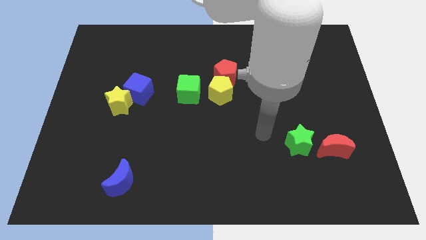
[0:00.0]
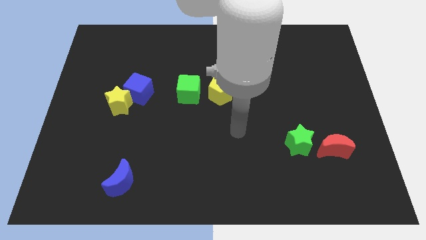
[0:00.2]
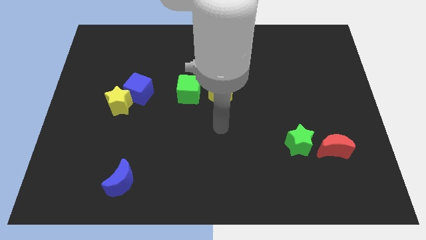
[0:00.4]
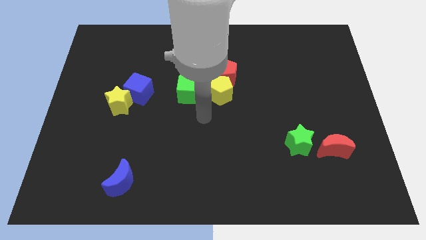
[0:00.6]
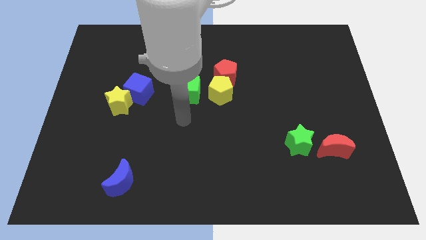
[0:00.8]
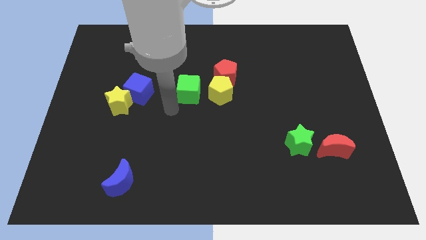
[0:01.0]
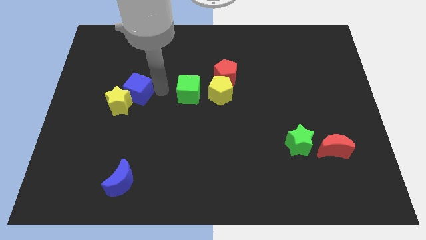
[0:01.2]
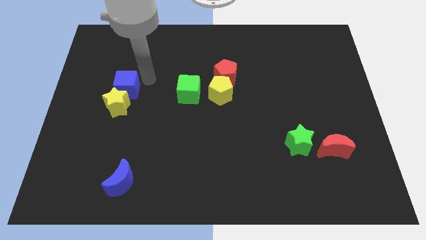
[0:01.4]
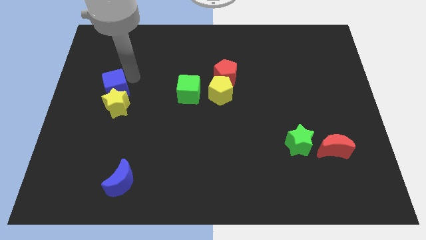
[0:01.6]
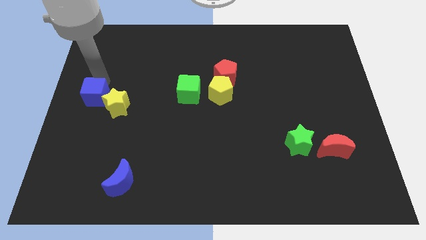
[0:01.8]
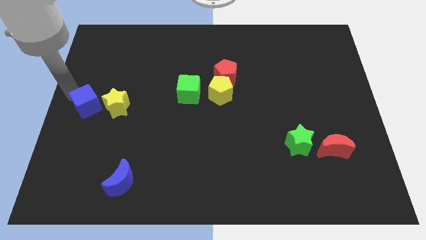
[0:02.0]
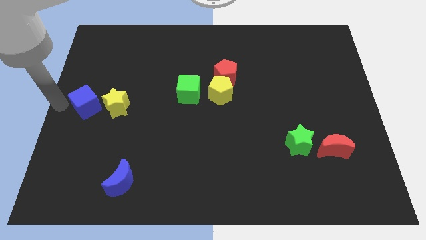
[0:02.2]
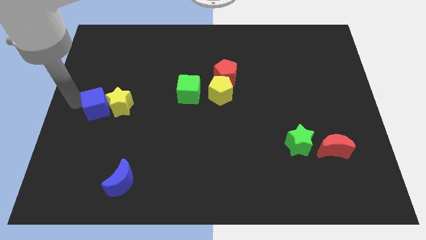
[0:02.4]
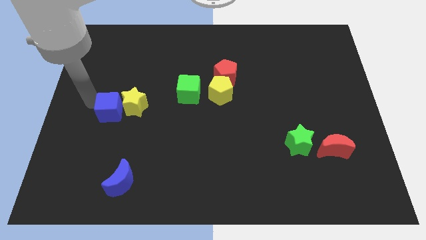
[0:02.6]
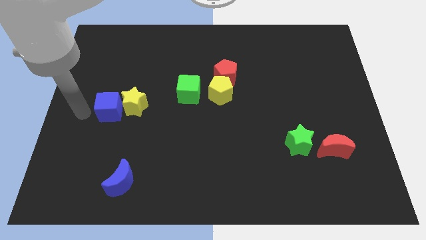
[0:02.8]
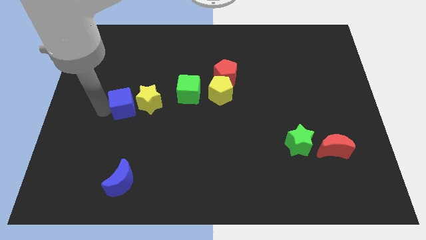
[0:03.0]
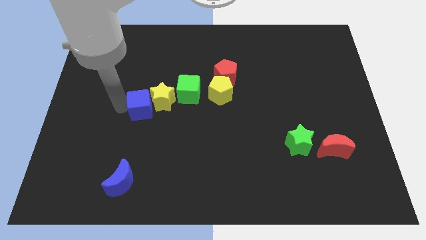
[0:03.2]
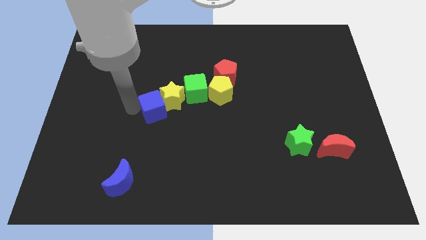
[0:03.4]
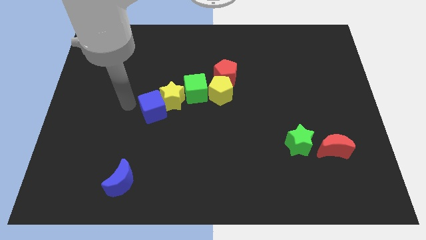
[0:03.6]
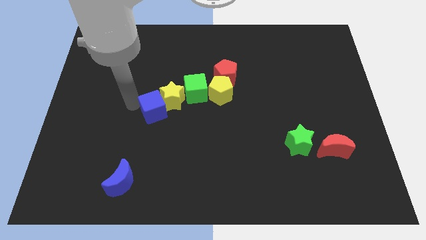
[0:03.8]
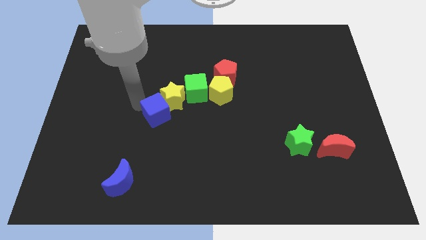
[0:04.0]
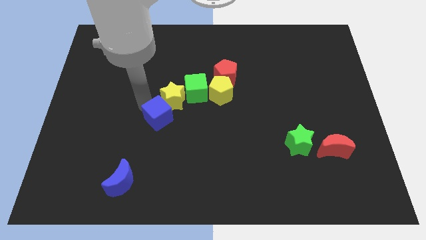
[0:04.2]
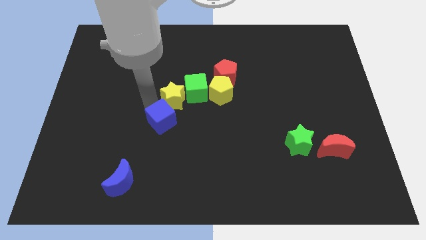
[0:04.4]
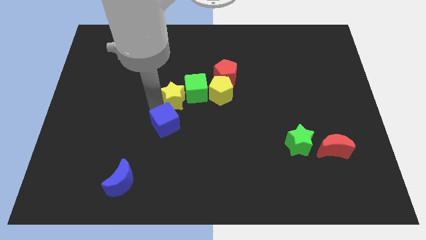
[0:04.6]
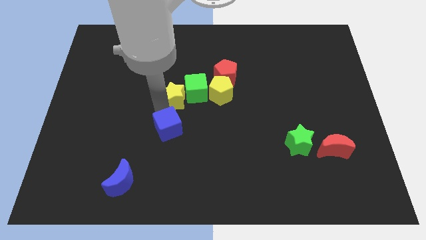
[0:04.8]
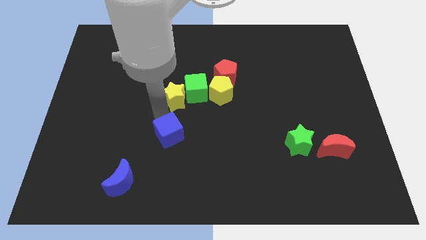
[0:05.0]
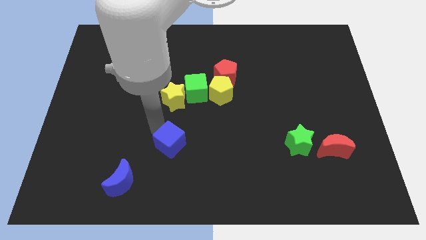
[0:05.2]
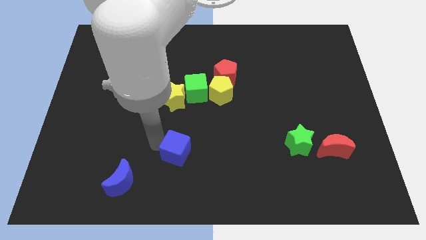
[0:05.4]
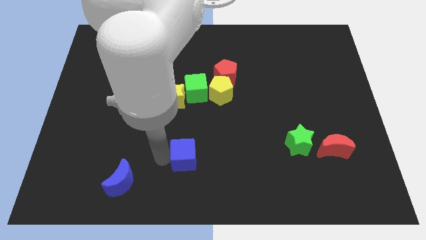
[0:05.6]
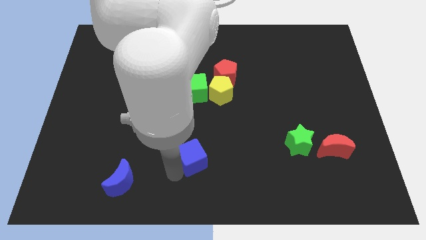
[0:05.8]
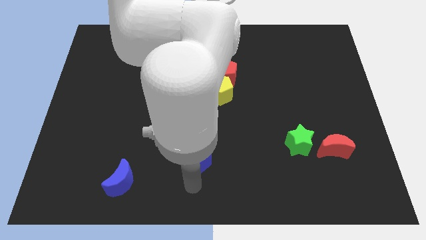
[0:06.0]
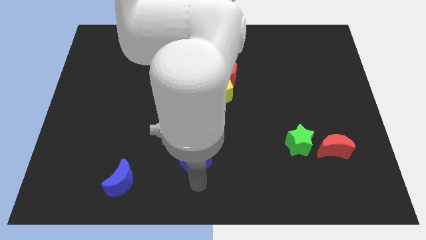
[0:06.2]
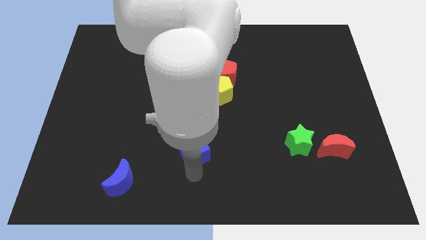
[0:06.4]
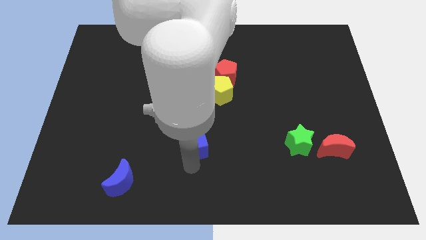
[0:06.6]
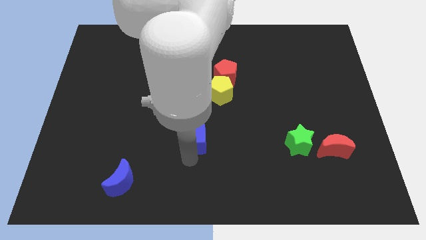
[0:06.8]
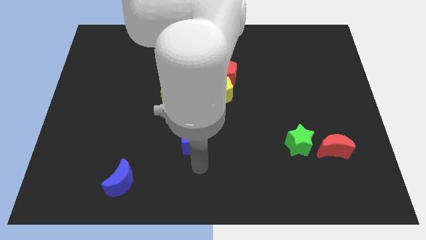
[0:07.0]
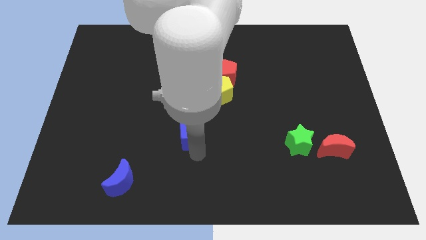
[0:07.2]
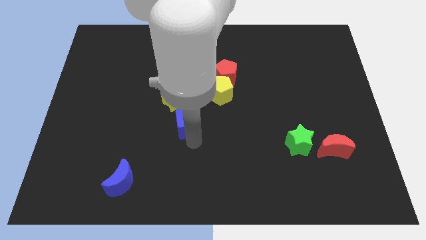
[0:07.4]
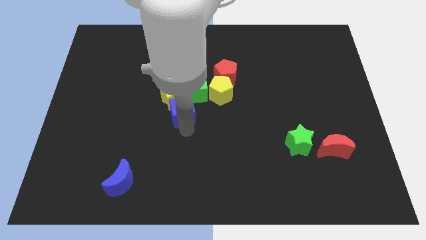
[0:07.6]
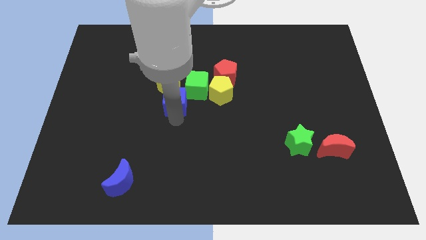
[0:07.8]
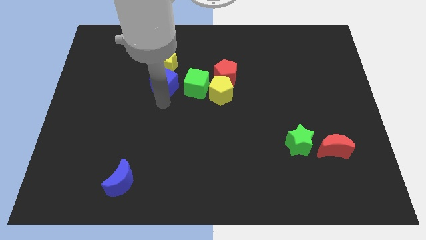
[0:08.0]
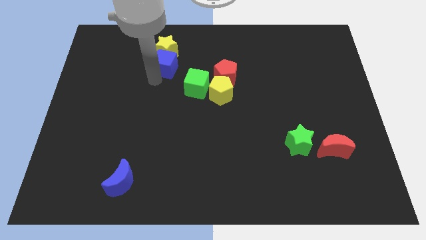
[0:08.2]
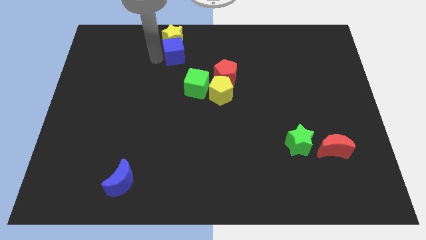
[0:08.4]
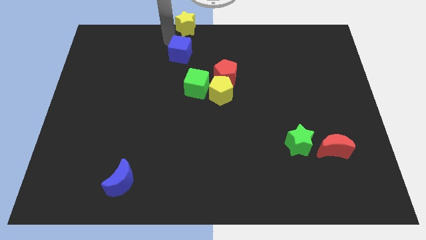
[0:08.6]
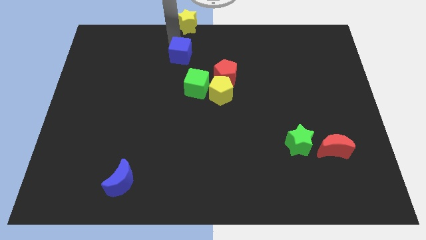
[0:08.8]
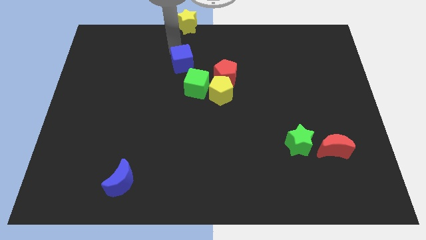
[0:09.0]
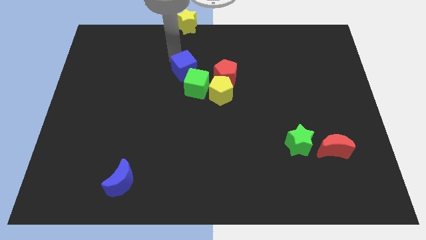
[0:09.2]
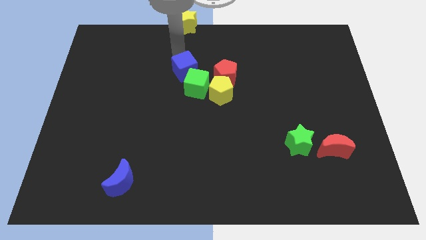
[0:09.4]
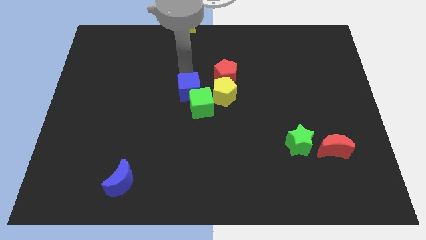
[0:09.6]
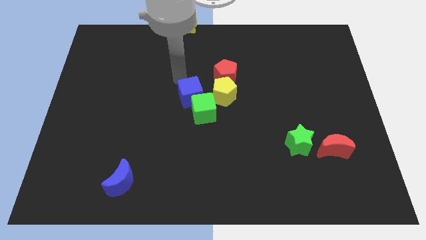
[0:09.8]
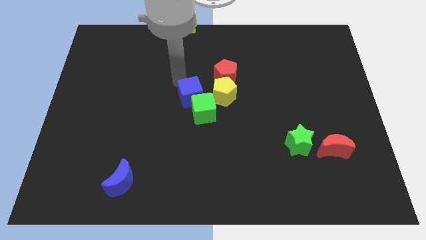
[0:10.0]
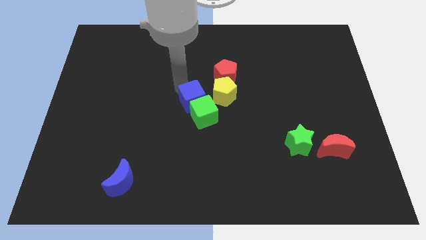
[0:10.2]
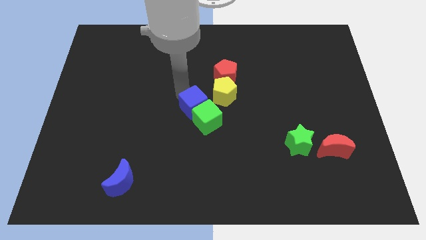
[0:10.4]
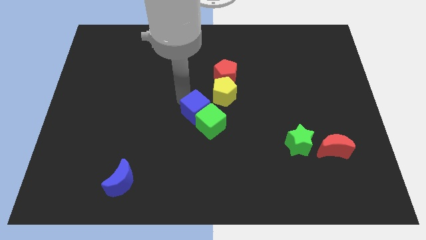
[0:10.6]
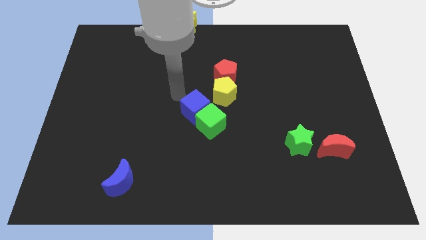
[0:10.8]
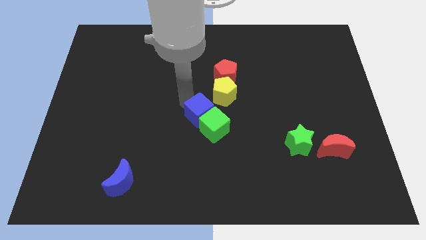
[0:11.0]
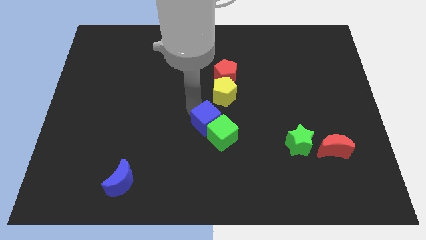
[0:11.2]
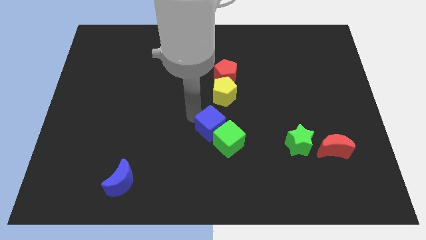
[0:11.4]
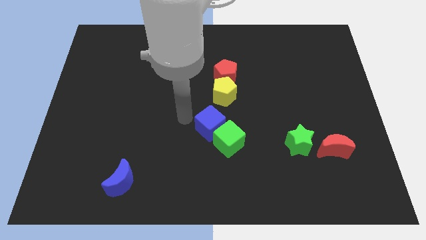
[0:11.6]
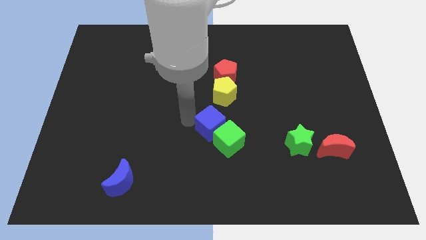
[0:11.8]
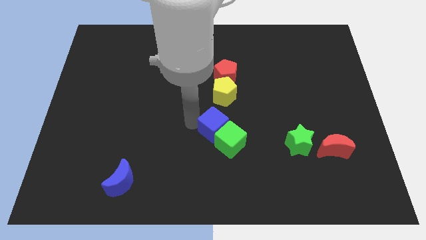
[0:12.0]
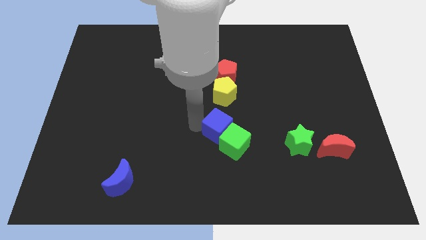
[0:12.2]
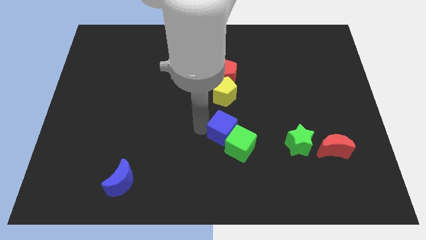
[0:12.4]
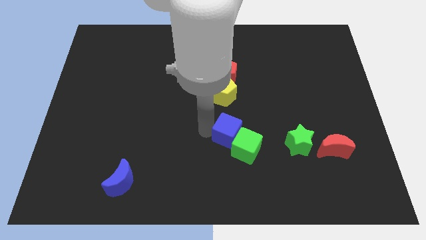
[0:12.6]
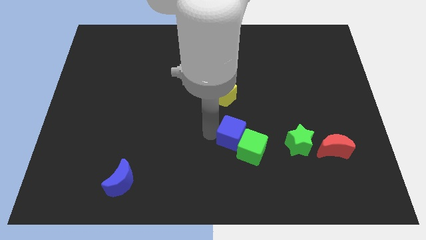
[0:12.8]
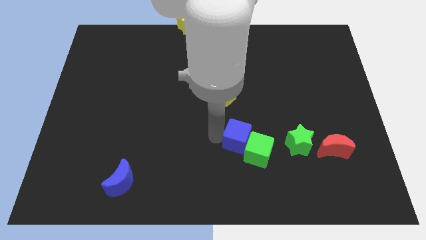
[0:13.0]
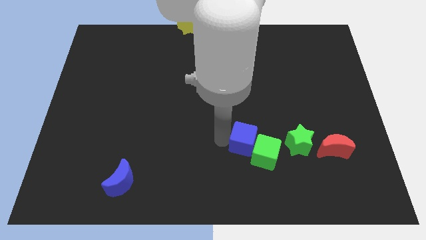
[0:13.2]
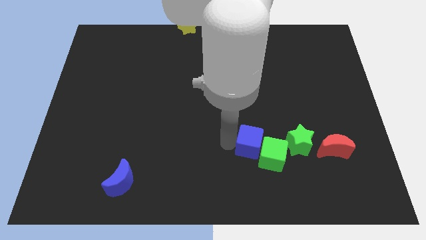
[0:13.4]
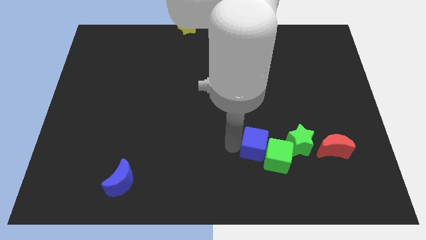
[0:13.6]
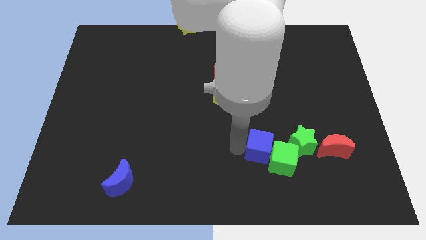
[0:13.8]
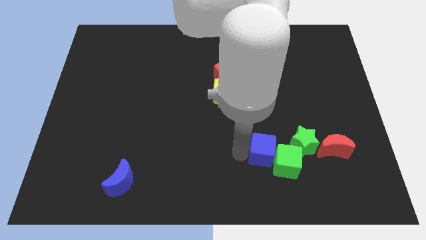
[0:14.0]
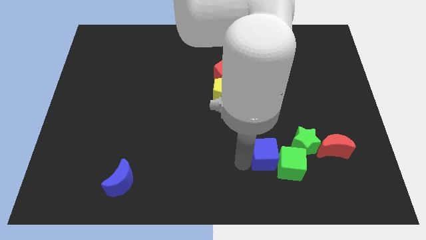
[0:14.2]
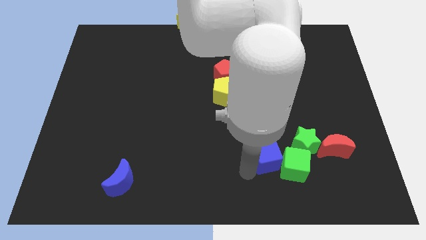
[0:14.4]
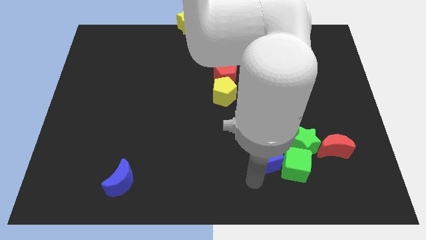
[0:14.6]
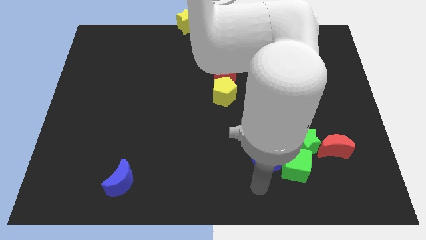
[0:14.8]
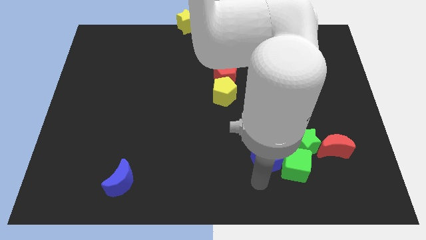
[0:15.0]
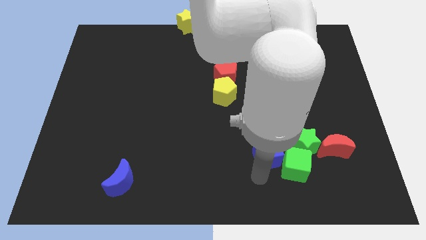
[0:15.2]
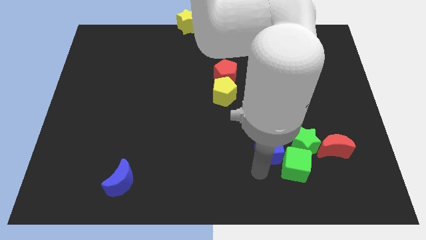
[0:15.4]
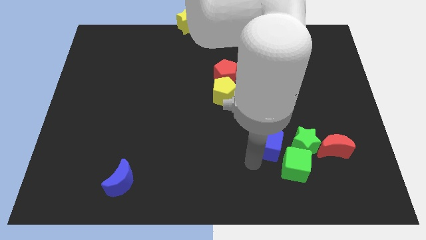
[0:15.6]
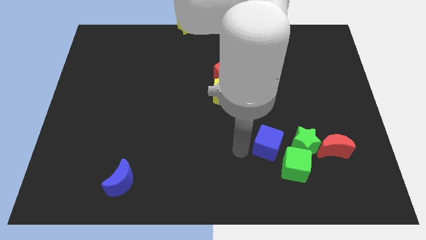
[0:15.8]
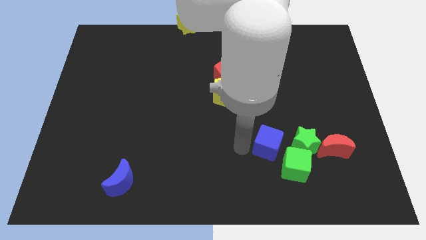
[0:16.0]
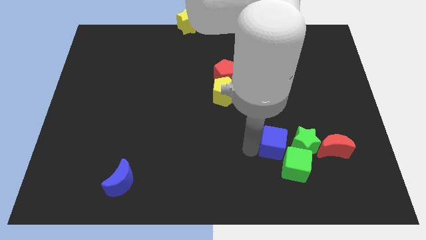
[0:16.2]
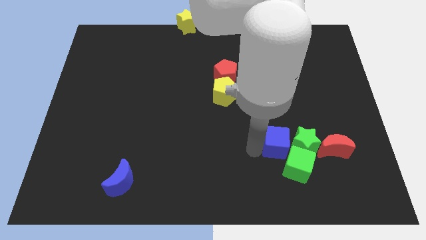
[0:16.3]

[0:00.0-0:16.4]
push the blue cube towards the green star
